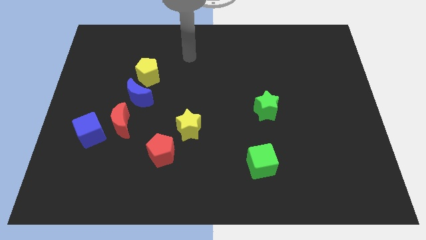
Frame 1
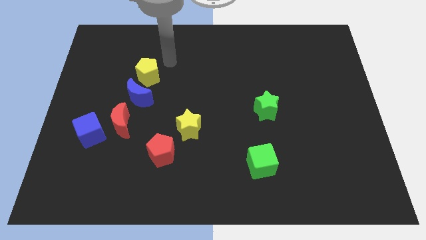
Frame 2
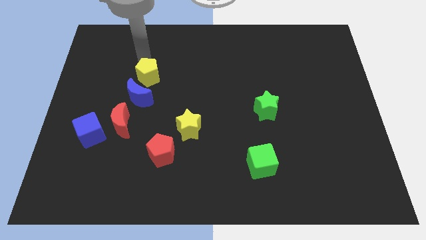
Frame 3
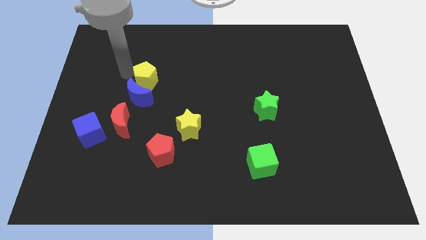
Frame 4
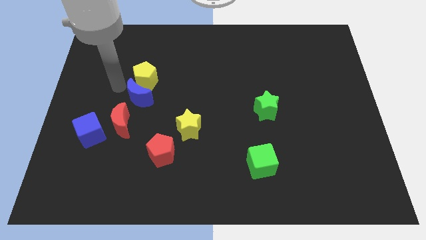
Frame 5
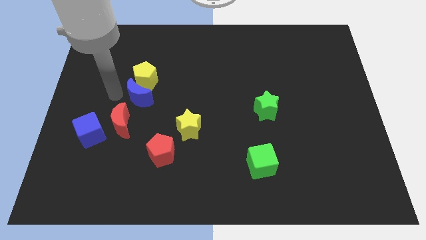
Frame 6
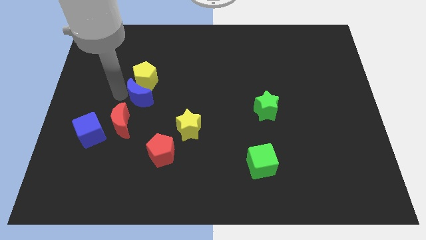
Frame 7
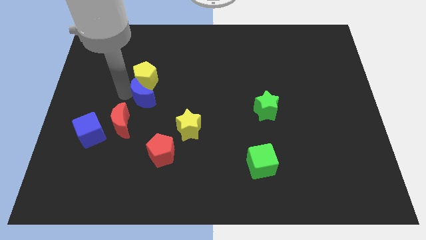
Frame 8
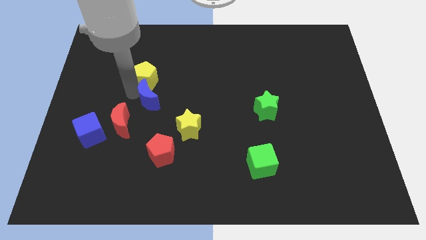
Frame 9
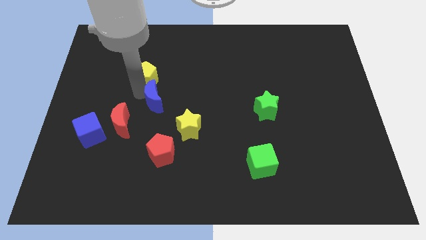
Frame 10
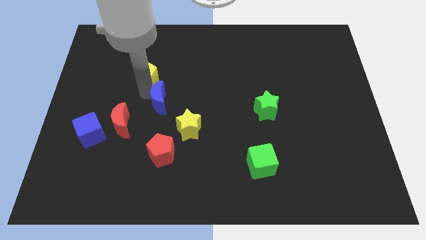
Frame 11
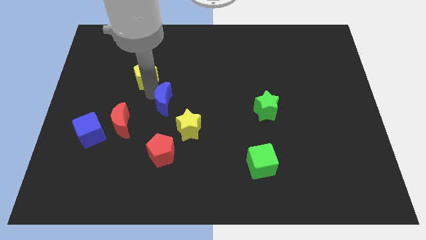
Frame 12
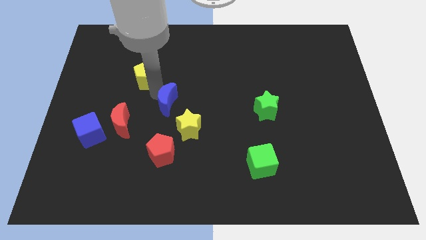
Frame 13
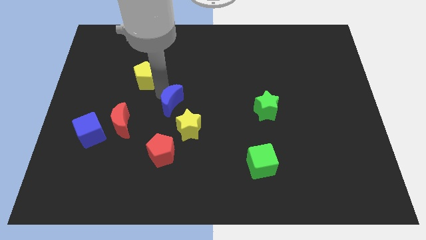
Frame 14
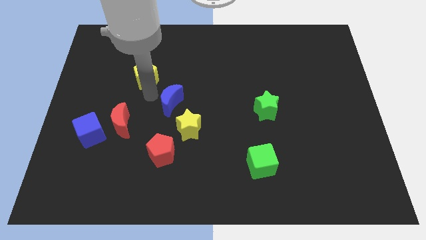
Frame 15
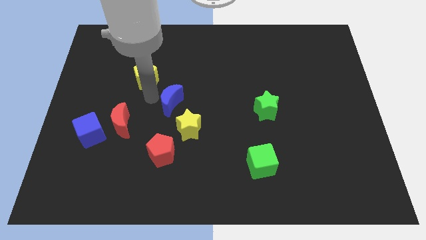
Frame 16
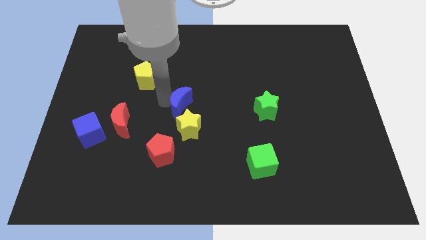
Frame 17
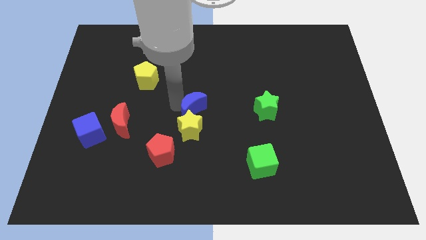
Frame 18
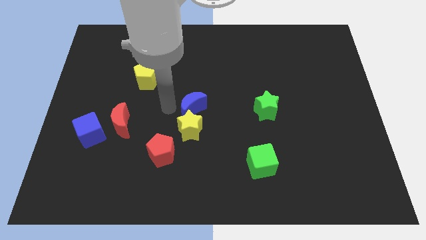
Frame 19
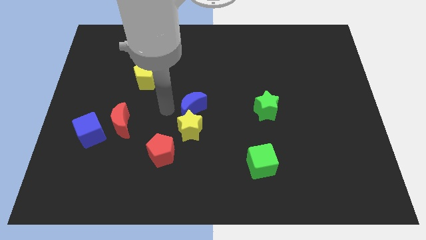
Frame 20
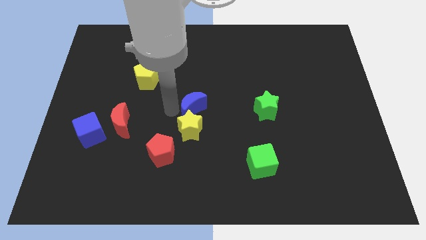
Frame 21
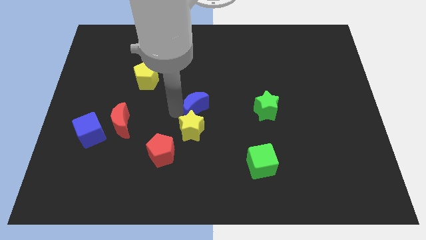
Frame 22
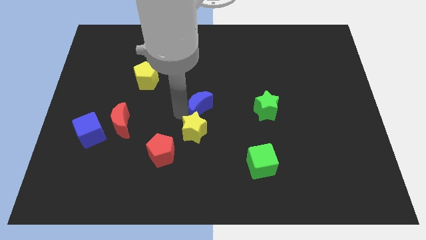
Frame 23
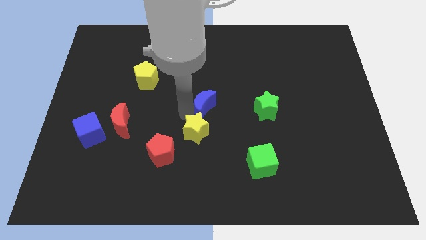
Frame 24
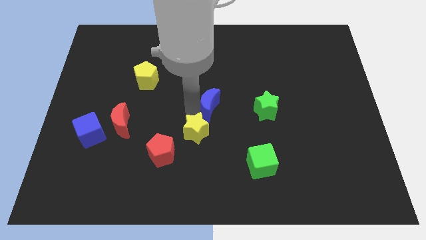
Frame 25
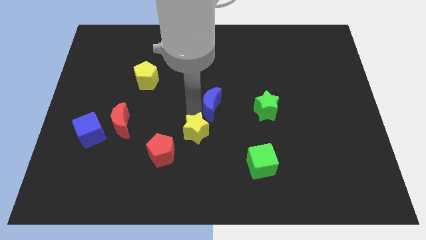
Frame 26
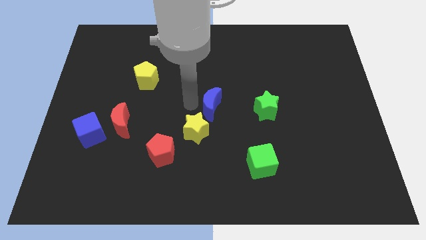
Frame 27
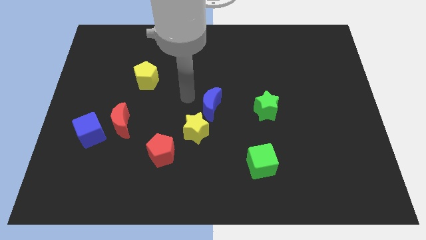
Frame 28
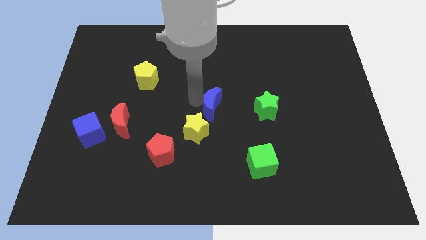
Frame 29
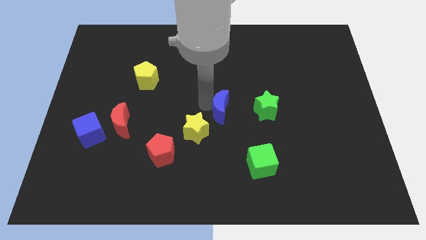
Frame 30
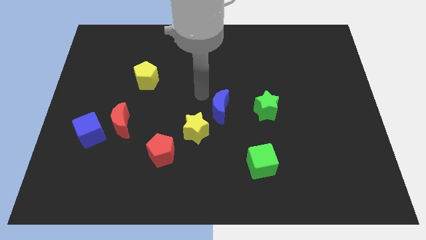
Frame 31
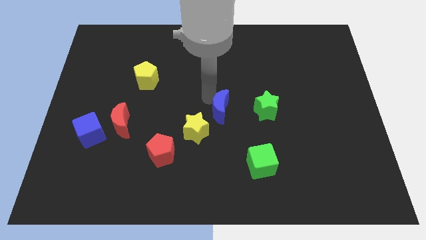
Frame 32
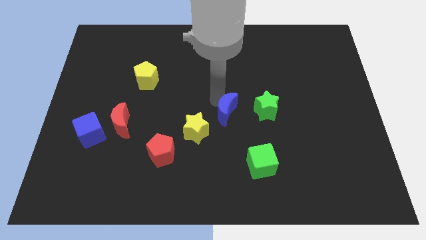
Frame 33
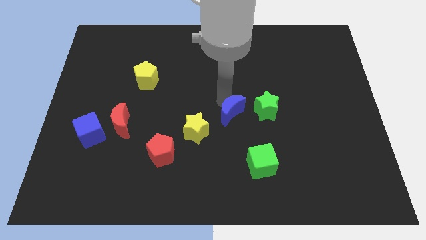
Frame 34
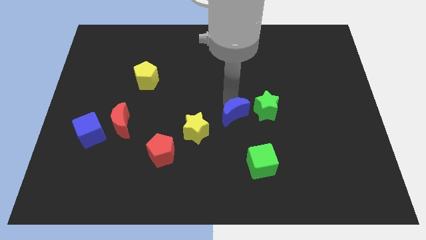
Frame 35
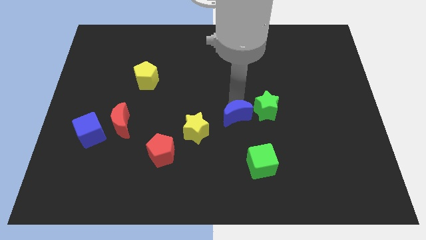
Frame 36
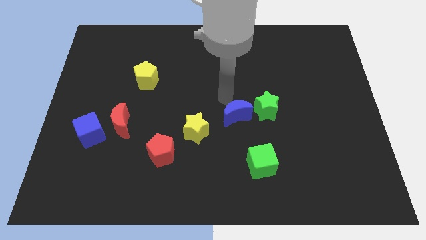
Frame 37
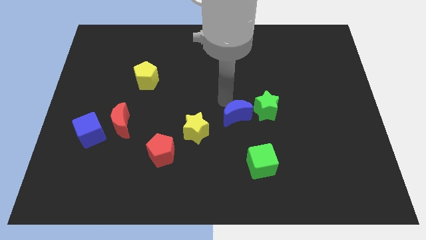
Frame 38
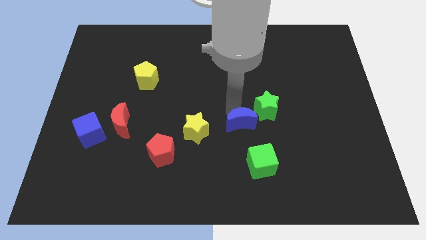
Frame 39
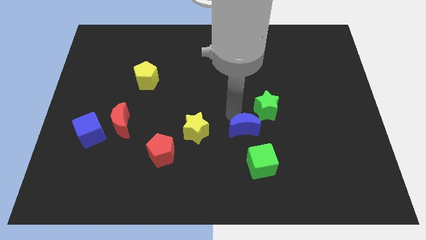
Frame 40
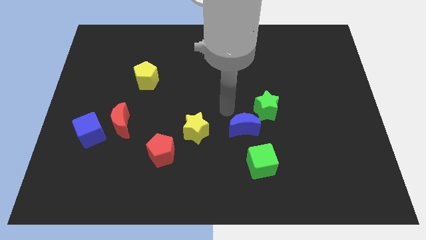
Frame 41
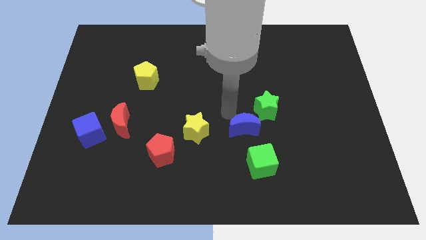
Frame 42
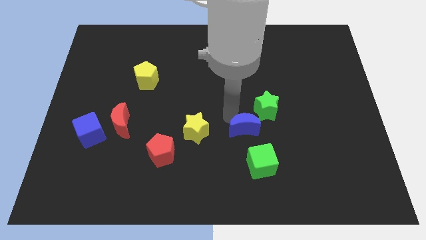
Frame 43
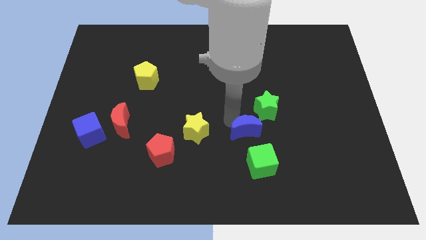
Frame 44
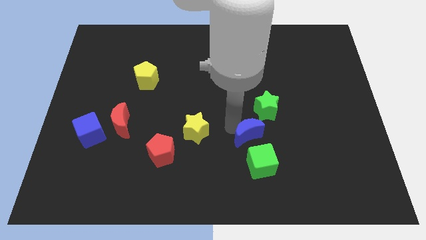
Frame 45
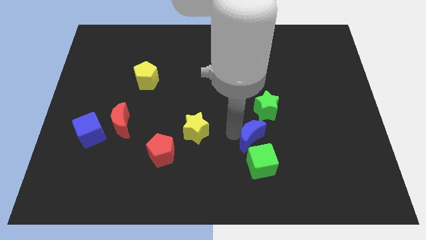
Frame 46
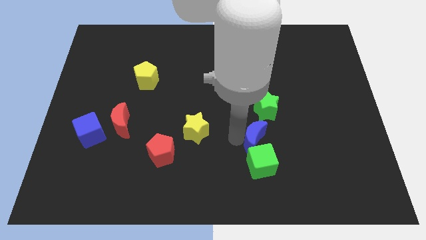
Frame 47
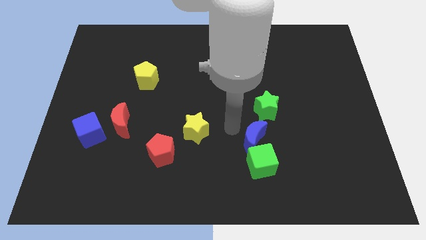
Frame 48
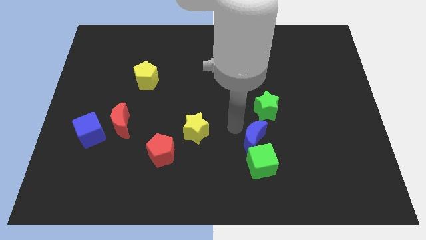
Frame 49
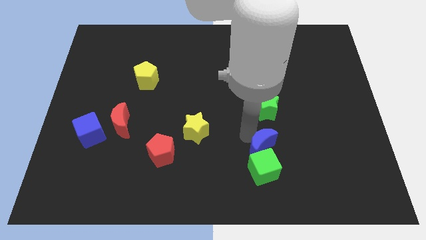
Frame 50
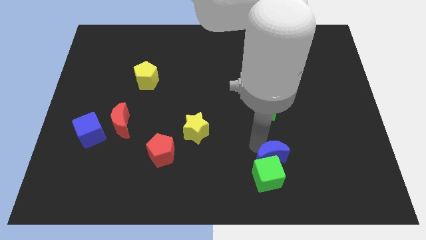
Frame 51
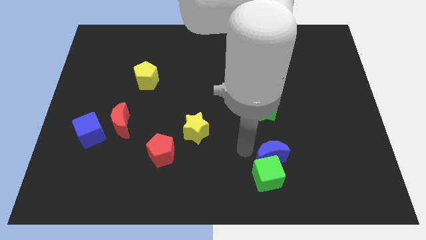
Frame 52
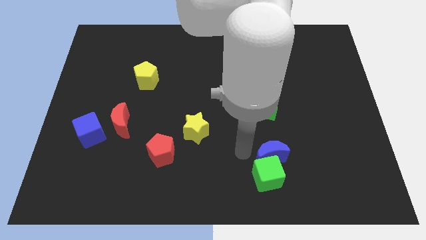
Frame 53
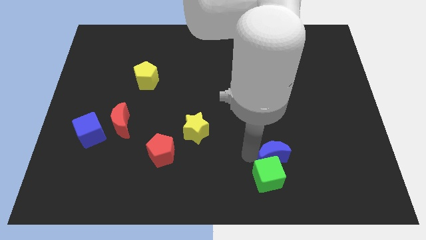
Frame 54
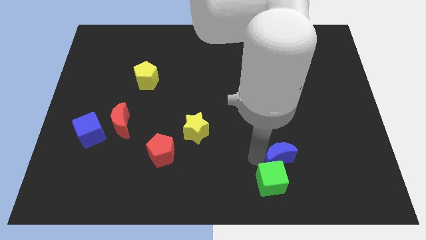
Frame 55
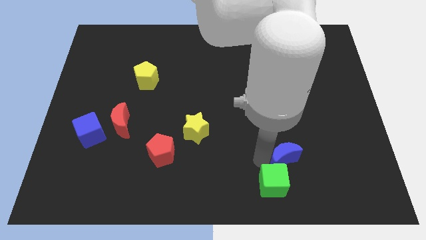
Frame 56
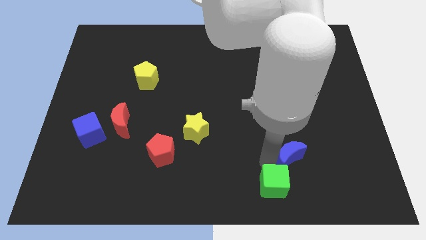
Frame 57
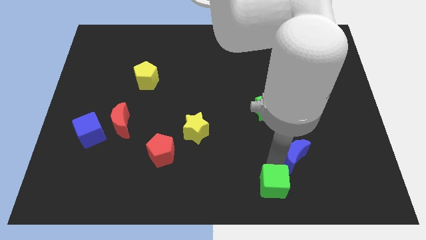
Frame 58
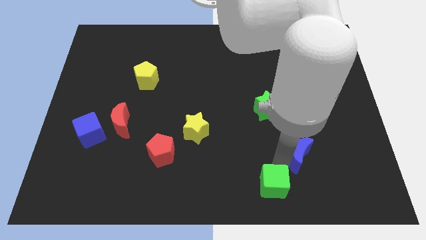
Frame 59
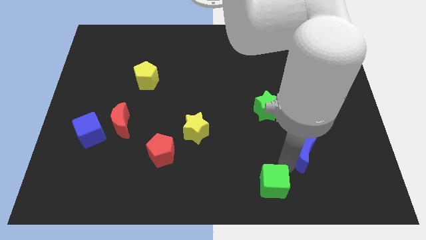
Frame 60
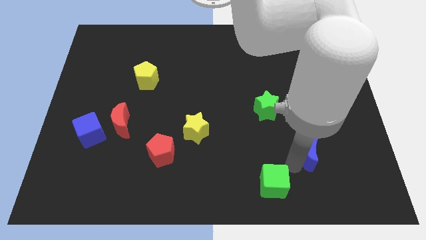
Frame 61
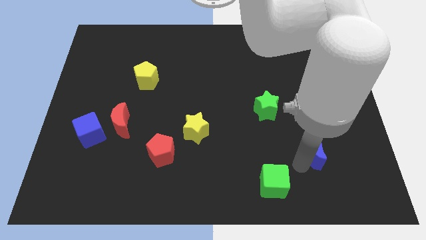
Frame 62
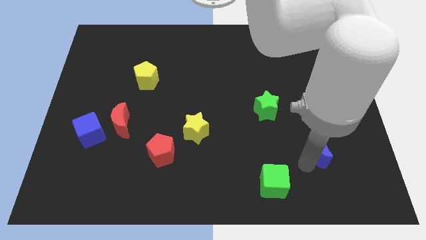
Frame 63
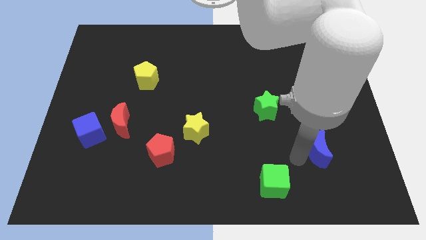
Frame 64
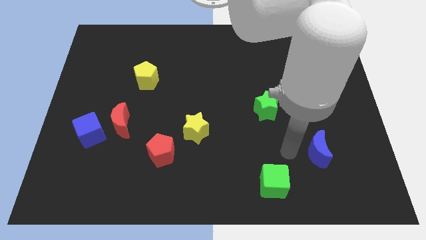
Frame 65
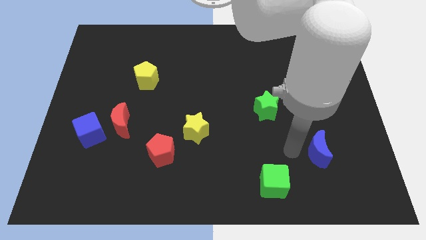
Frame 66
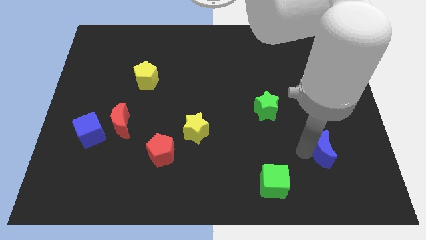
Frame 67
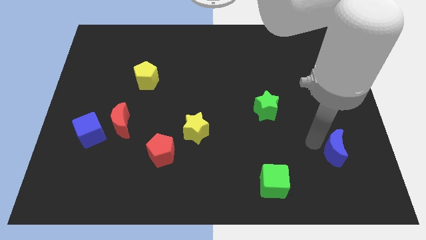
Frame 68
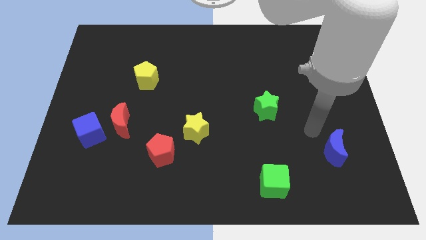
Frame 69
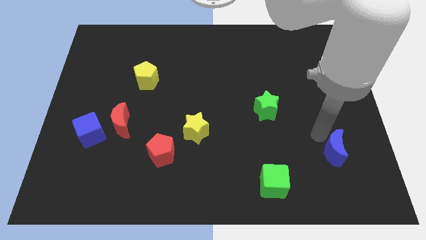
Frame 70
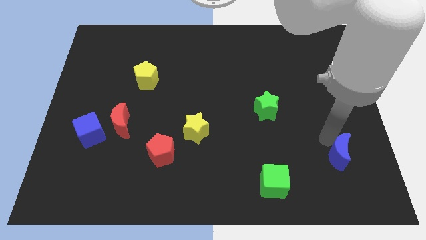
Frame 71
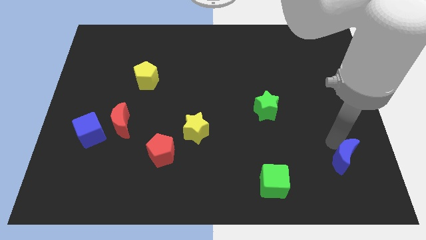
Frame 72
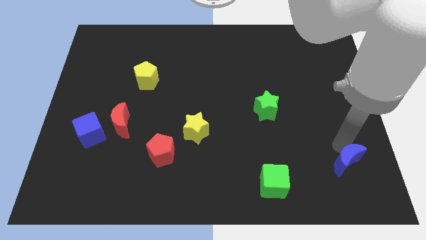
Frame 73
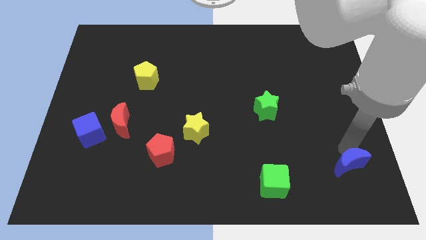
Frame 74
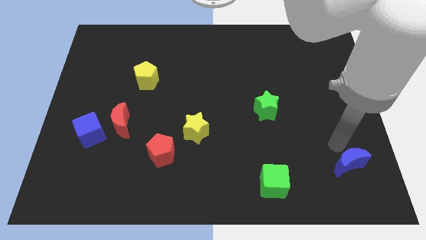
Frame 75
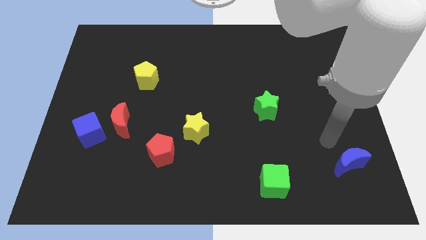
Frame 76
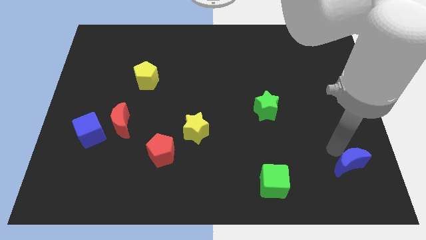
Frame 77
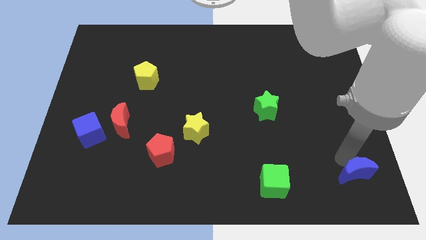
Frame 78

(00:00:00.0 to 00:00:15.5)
slide the blue moon to the bottom right corner
